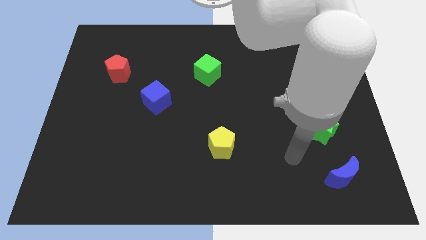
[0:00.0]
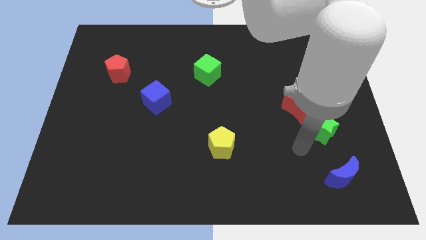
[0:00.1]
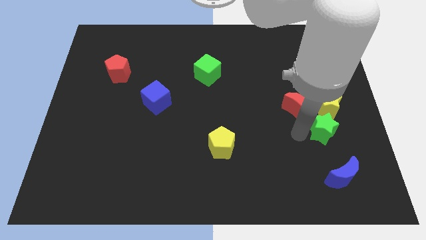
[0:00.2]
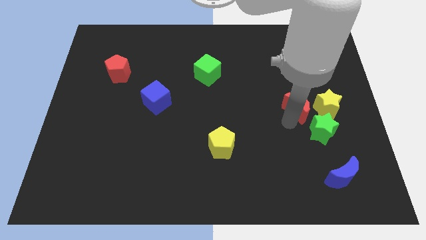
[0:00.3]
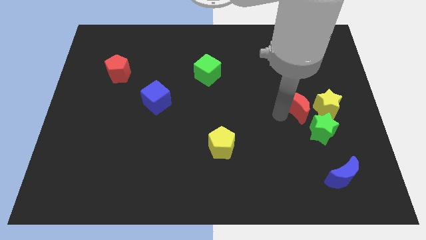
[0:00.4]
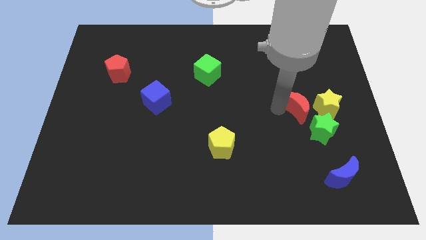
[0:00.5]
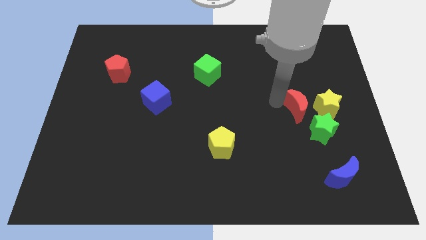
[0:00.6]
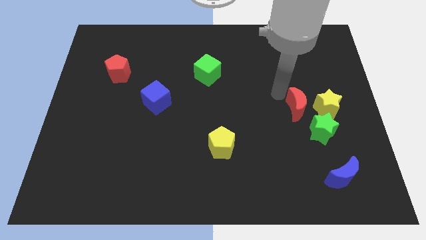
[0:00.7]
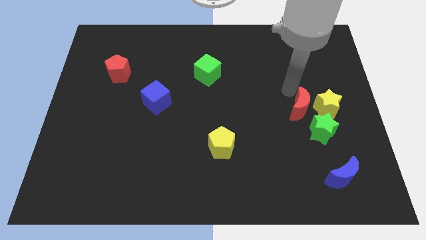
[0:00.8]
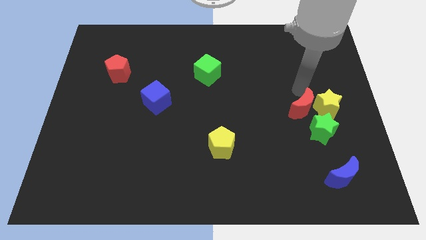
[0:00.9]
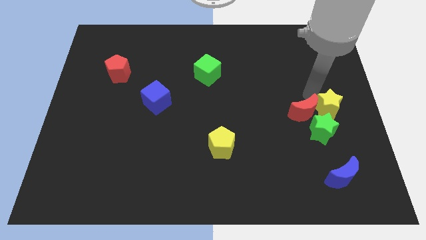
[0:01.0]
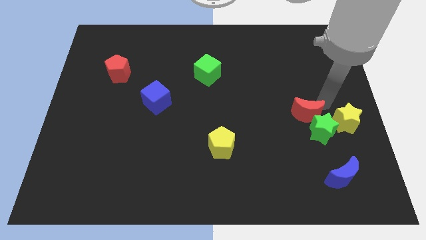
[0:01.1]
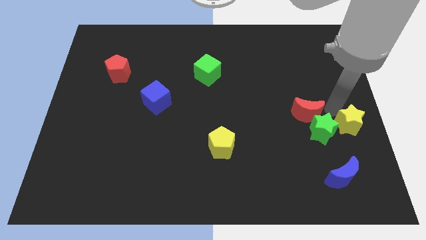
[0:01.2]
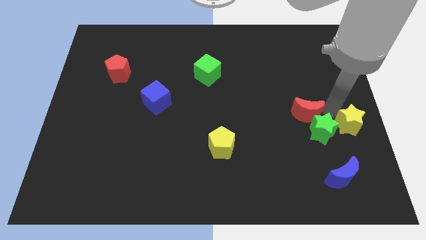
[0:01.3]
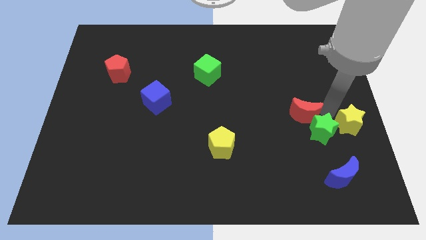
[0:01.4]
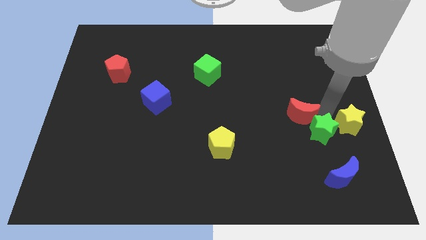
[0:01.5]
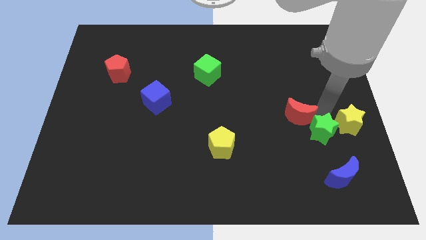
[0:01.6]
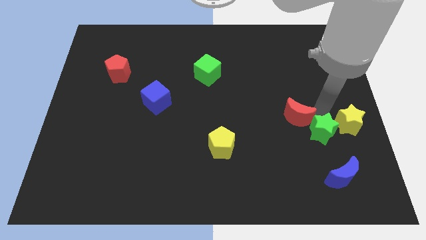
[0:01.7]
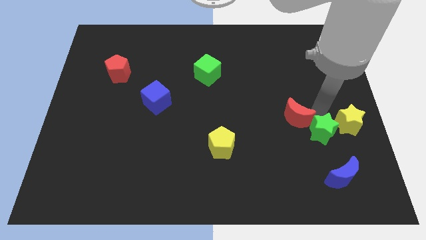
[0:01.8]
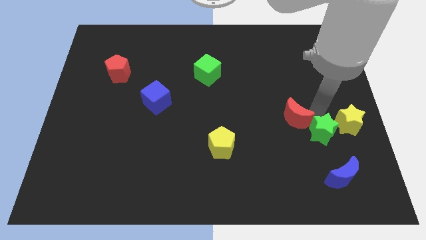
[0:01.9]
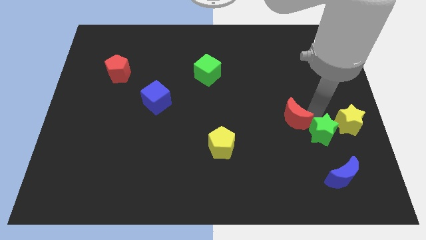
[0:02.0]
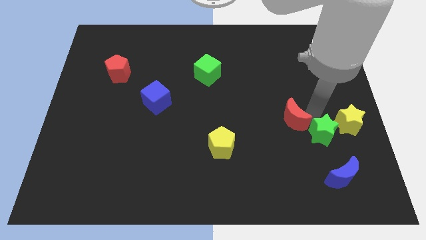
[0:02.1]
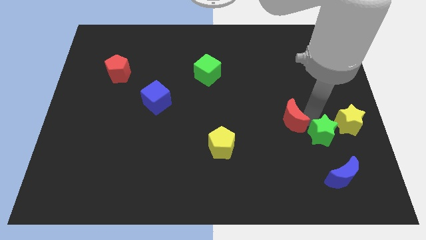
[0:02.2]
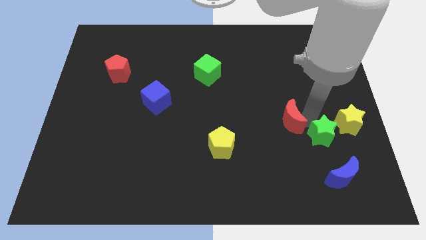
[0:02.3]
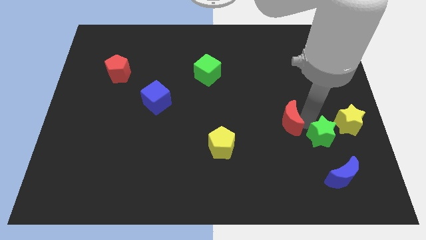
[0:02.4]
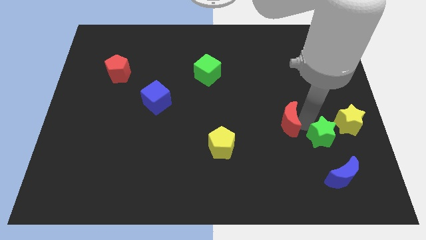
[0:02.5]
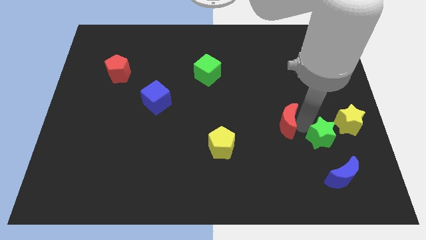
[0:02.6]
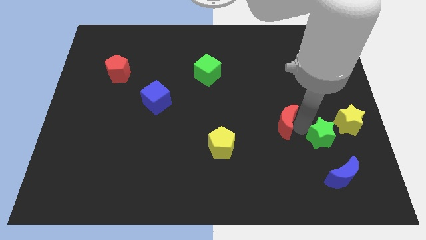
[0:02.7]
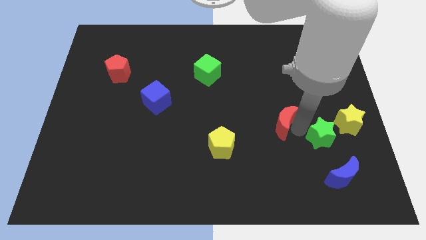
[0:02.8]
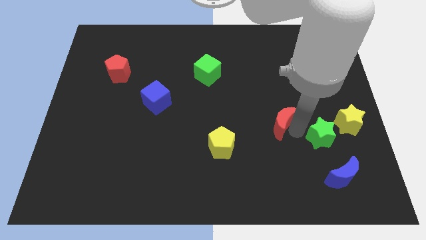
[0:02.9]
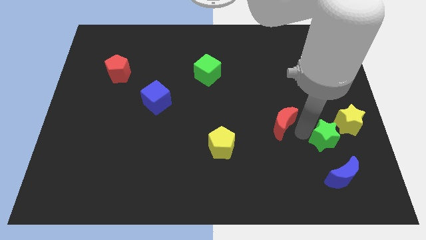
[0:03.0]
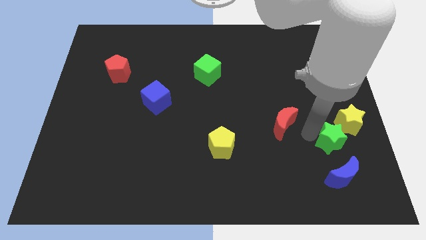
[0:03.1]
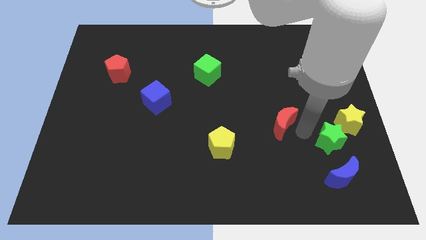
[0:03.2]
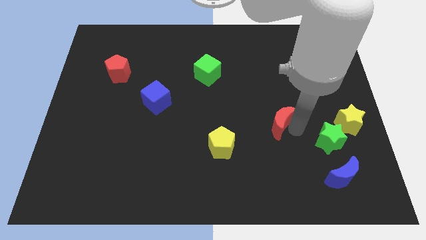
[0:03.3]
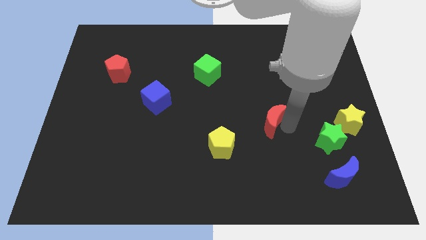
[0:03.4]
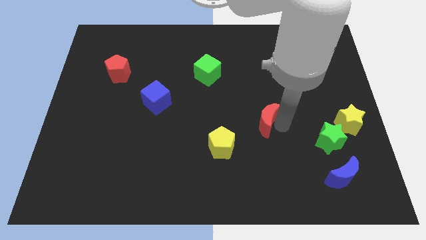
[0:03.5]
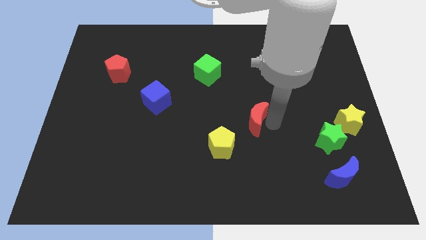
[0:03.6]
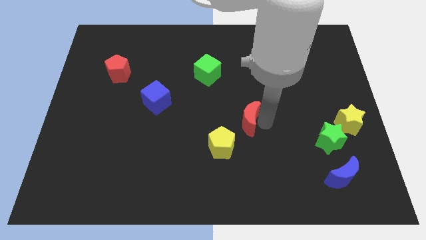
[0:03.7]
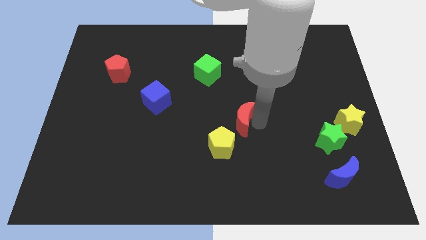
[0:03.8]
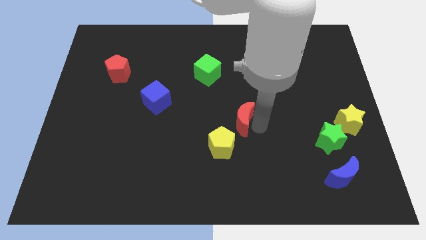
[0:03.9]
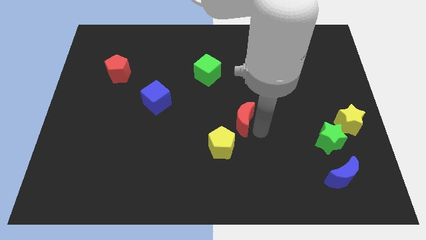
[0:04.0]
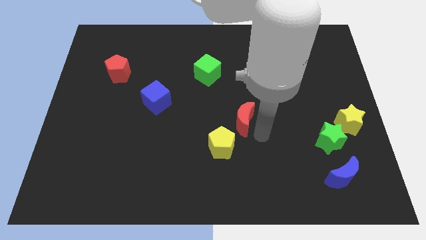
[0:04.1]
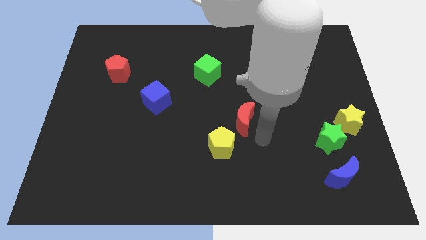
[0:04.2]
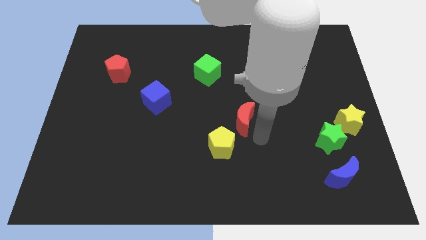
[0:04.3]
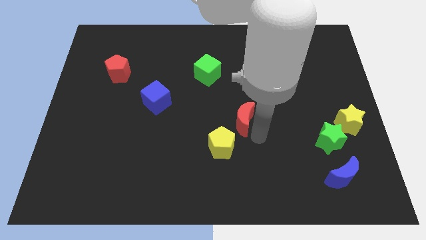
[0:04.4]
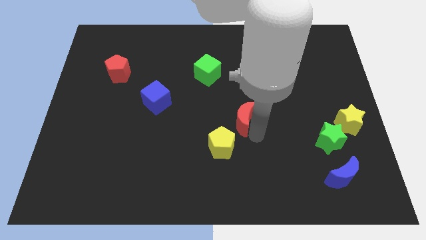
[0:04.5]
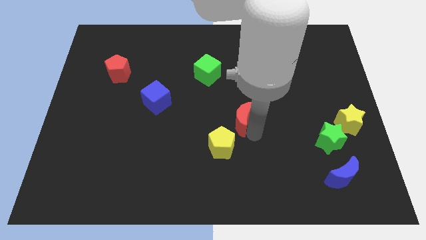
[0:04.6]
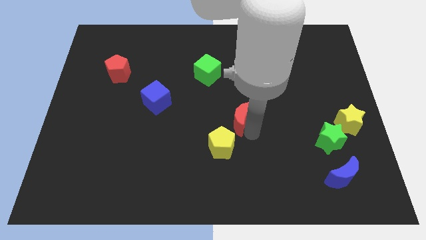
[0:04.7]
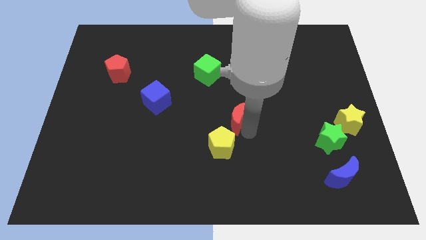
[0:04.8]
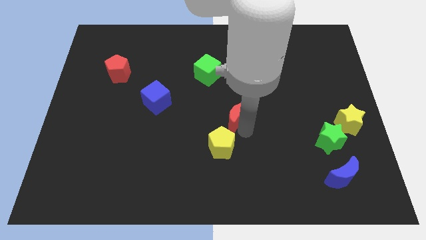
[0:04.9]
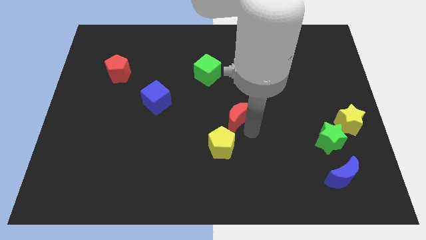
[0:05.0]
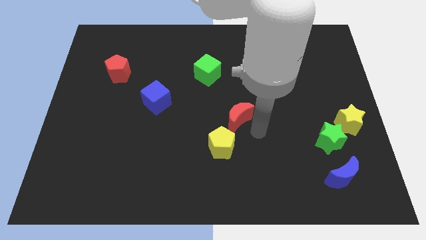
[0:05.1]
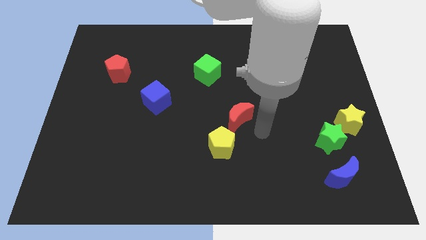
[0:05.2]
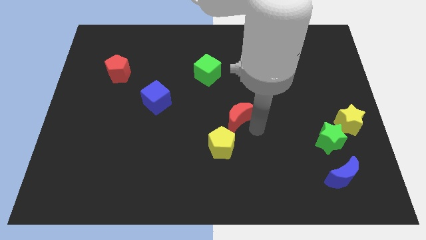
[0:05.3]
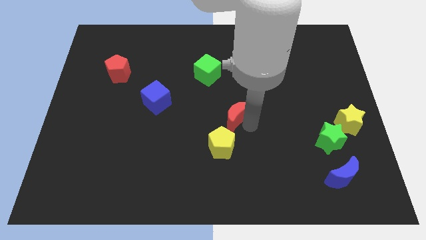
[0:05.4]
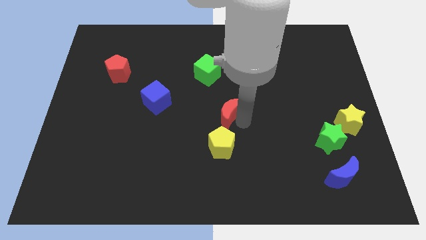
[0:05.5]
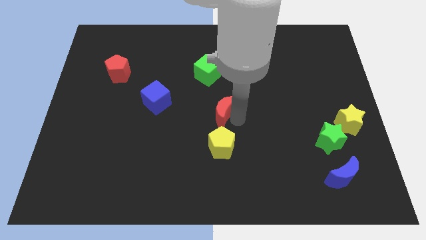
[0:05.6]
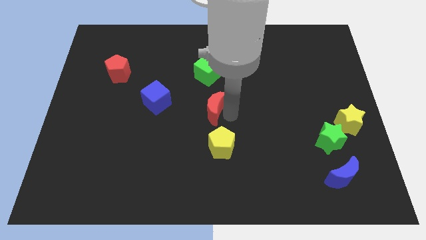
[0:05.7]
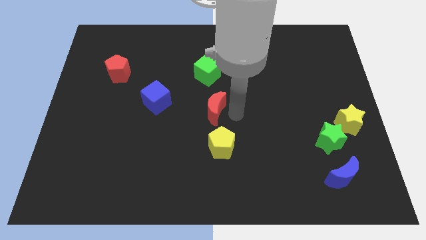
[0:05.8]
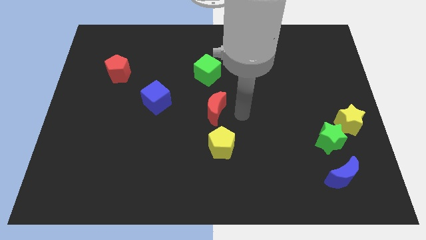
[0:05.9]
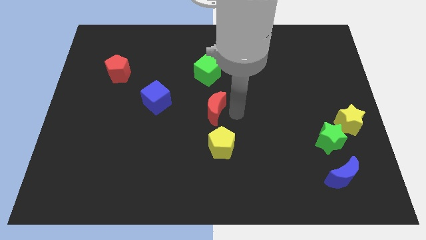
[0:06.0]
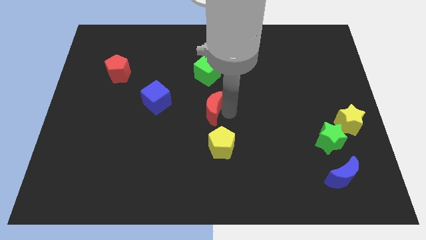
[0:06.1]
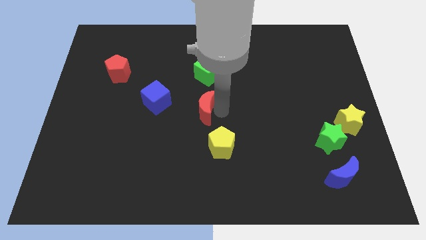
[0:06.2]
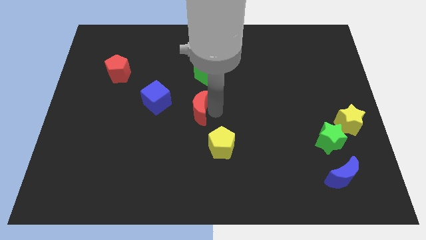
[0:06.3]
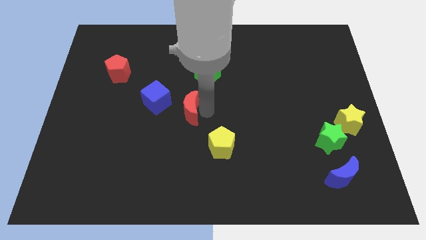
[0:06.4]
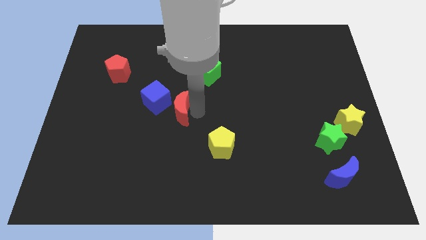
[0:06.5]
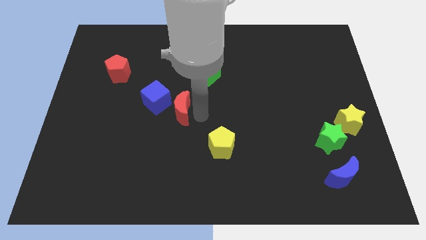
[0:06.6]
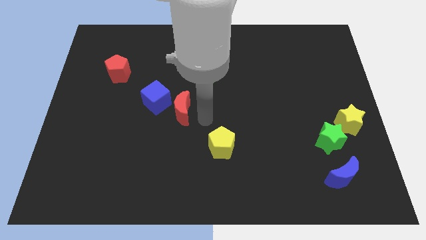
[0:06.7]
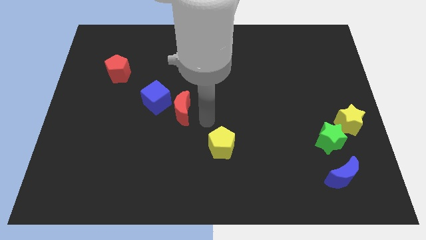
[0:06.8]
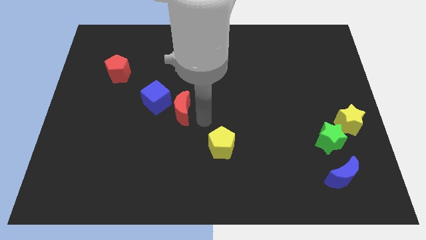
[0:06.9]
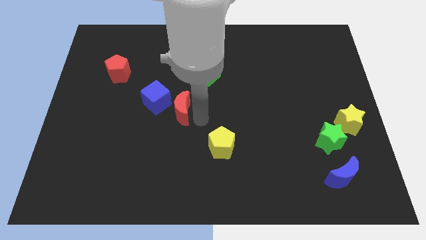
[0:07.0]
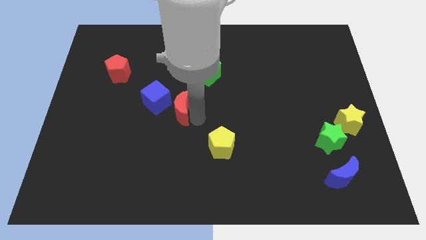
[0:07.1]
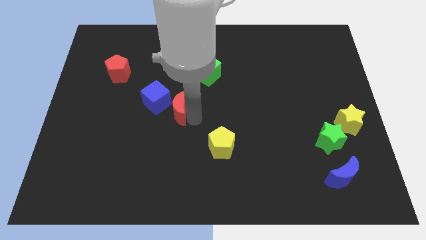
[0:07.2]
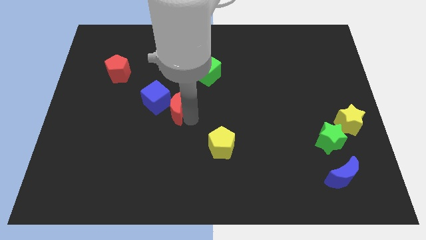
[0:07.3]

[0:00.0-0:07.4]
slide the red moon close to the blue cube

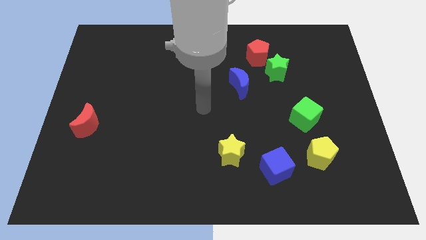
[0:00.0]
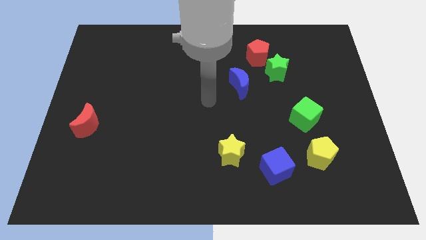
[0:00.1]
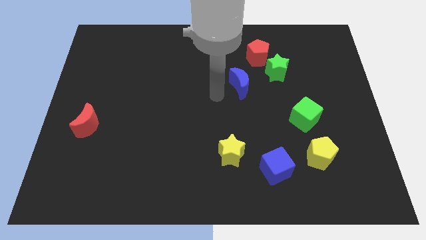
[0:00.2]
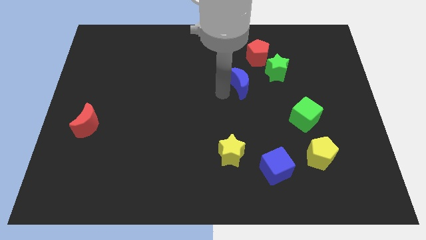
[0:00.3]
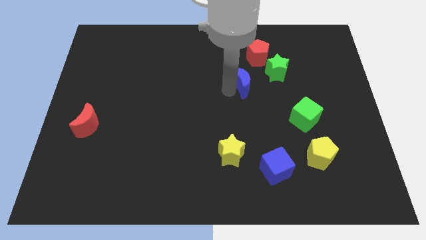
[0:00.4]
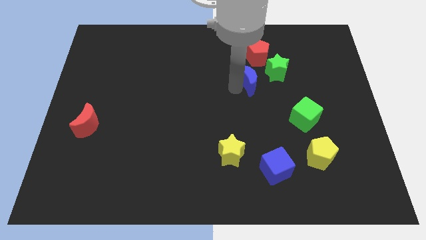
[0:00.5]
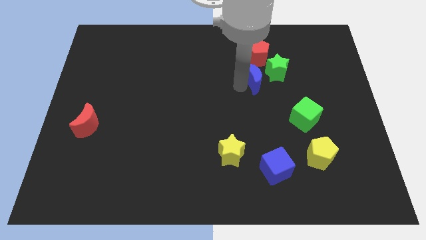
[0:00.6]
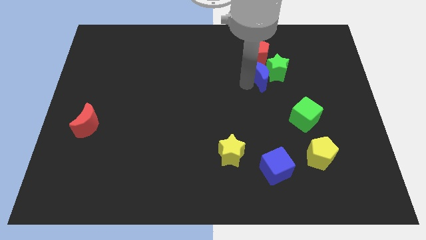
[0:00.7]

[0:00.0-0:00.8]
slide the blue moon next to the green star

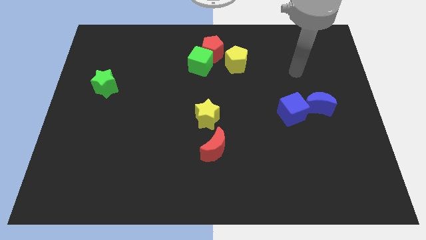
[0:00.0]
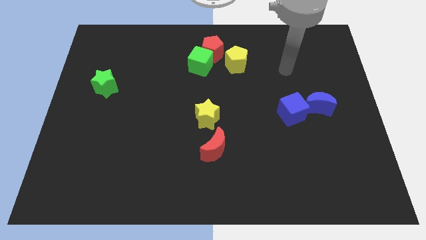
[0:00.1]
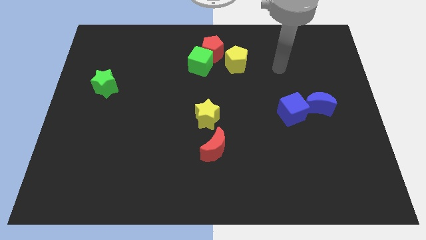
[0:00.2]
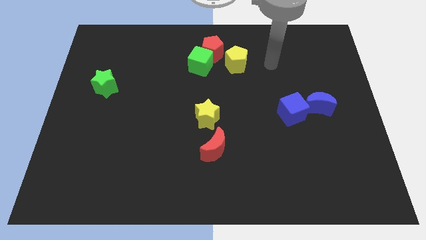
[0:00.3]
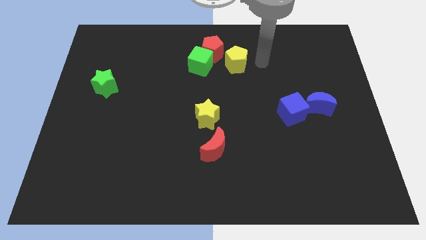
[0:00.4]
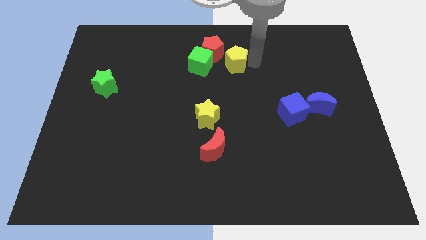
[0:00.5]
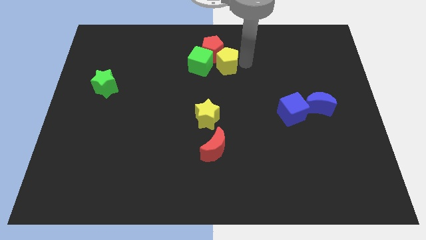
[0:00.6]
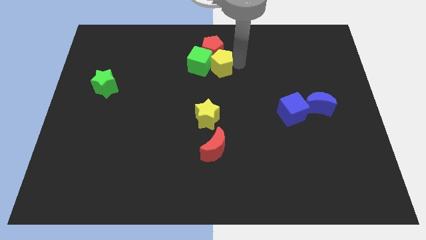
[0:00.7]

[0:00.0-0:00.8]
push the yellow pentagon towards the green cube
